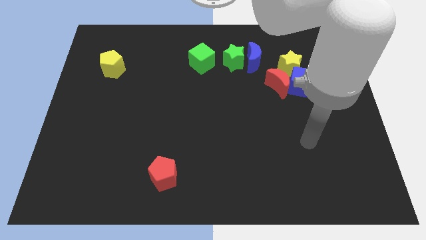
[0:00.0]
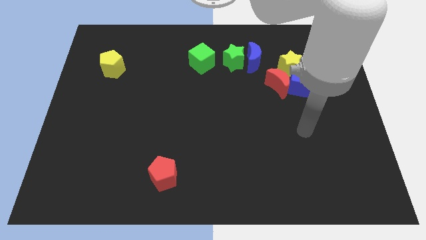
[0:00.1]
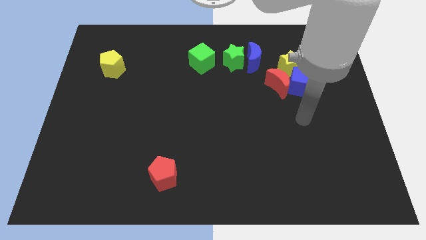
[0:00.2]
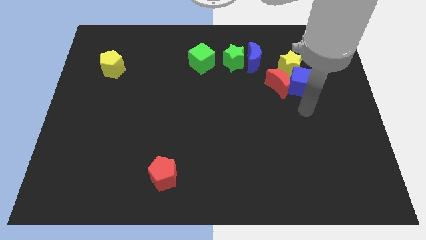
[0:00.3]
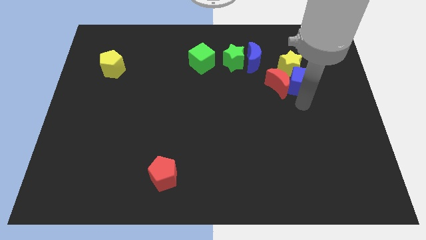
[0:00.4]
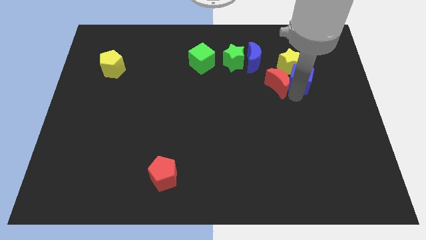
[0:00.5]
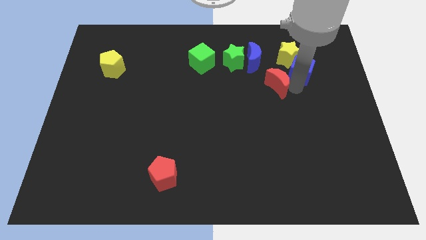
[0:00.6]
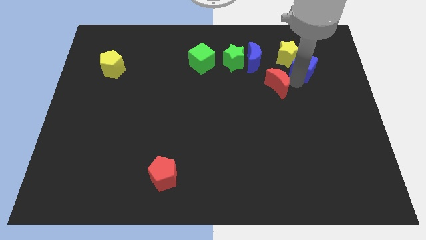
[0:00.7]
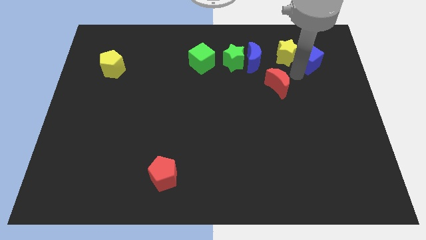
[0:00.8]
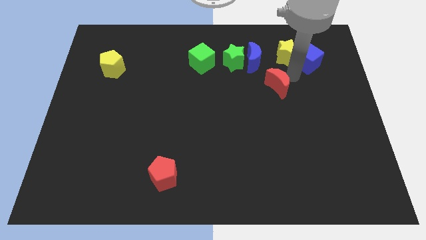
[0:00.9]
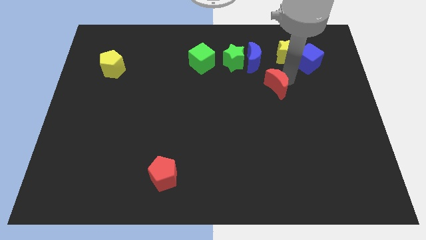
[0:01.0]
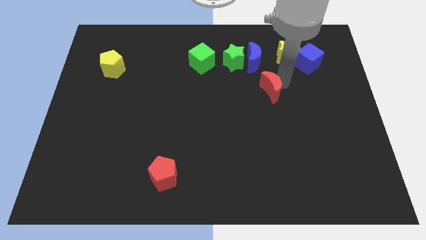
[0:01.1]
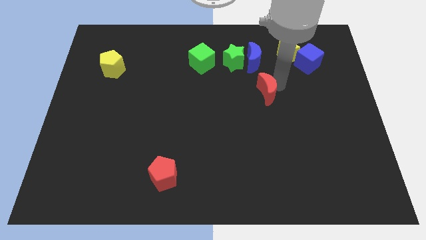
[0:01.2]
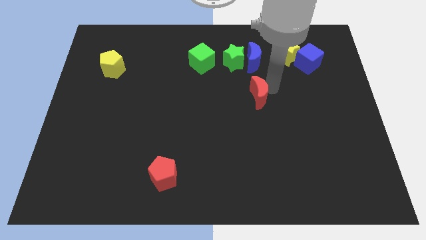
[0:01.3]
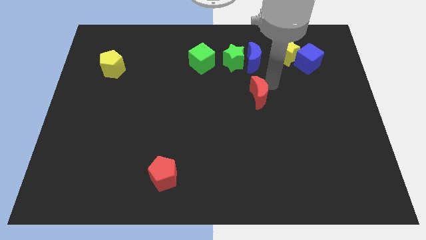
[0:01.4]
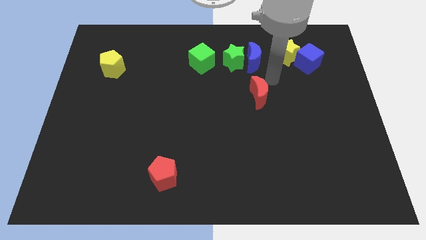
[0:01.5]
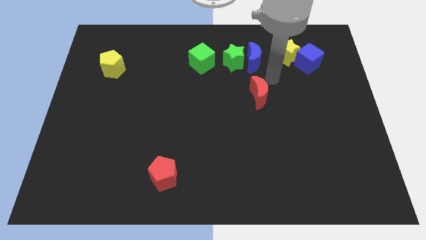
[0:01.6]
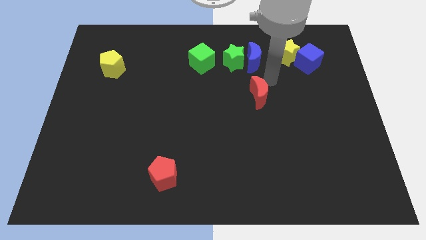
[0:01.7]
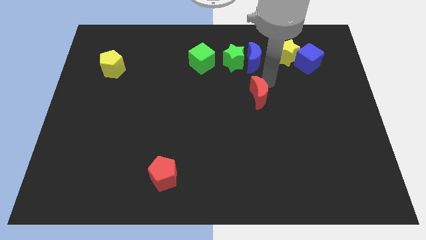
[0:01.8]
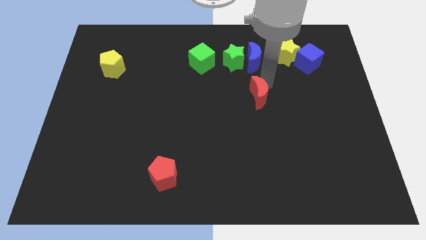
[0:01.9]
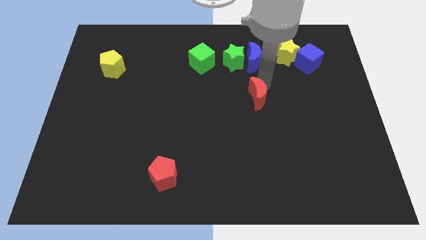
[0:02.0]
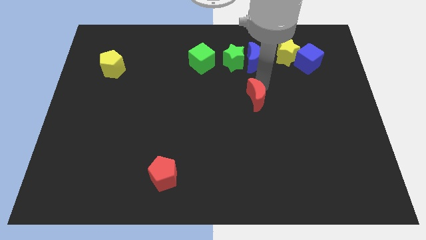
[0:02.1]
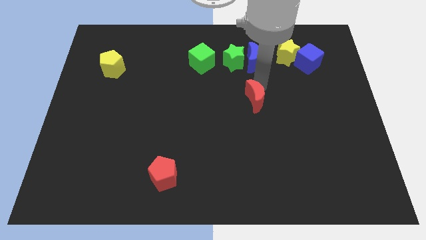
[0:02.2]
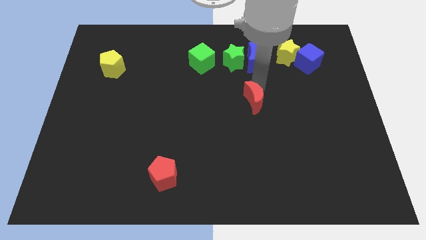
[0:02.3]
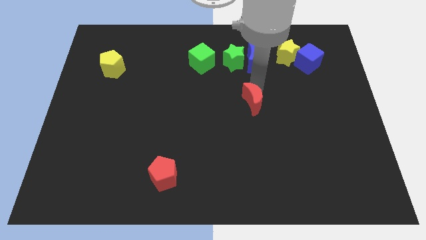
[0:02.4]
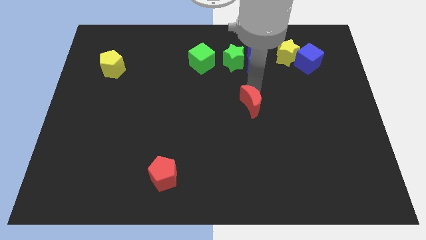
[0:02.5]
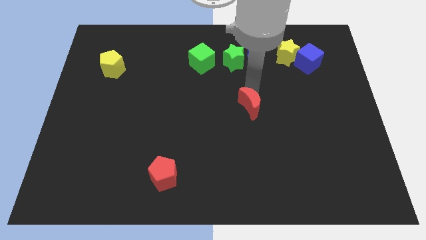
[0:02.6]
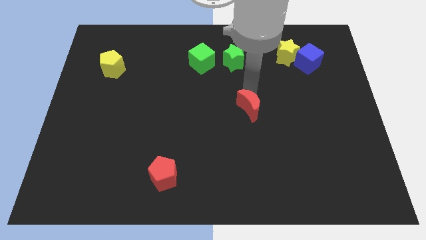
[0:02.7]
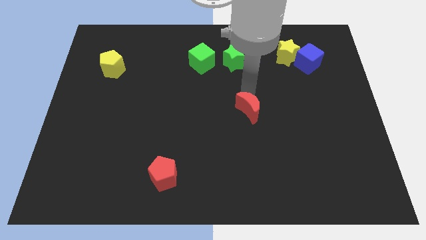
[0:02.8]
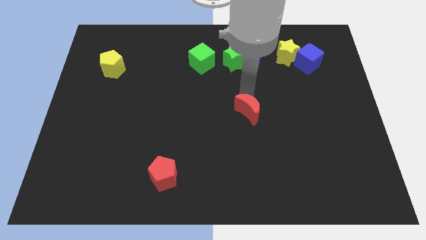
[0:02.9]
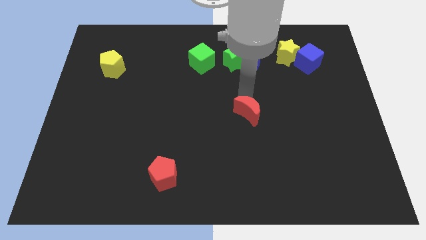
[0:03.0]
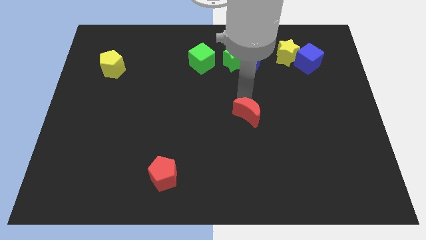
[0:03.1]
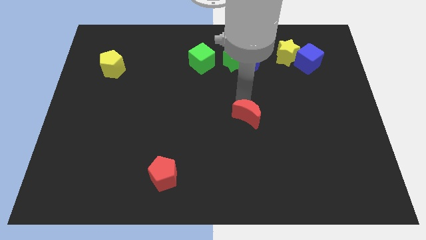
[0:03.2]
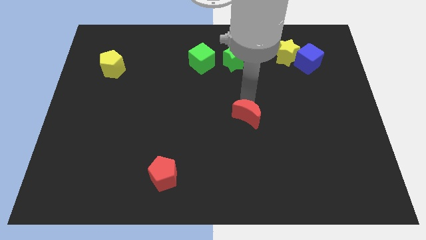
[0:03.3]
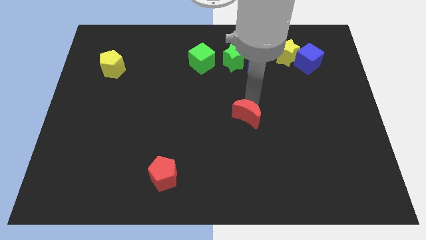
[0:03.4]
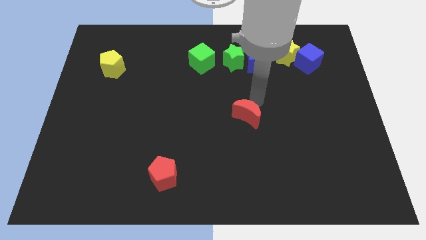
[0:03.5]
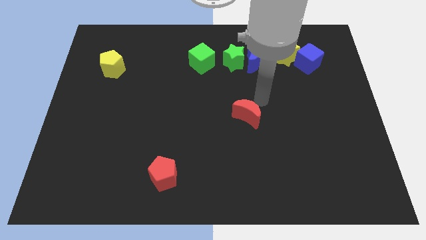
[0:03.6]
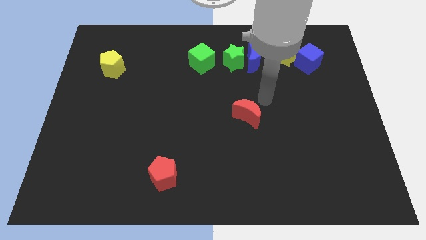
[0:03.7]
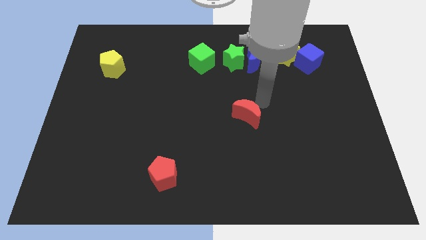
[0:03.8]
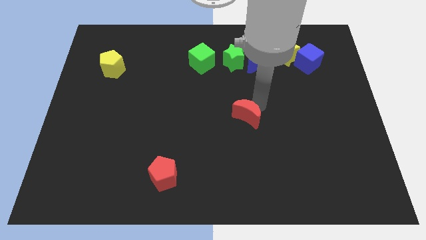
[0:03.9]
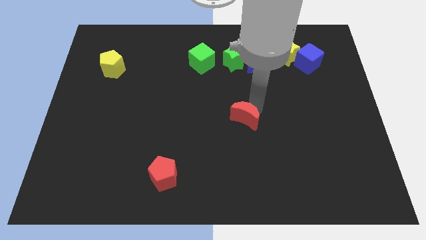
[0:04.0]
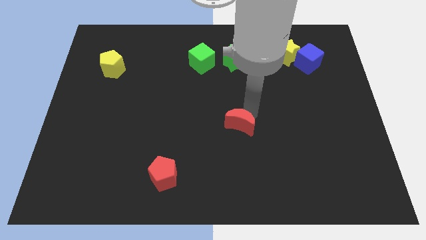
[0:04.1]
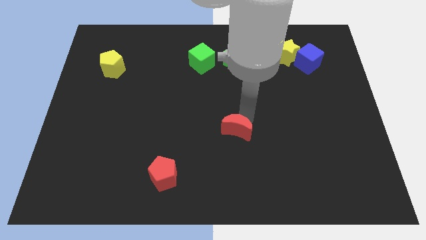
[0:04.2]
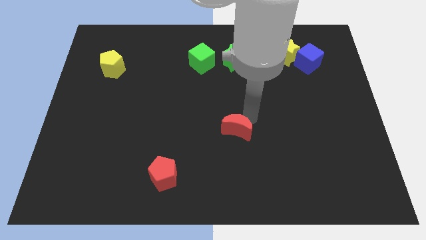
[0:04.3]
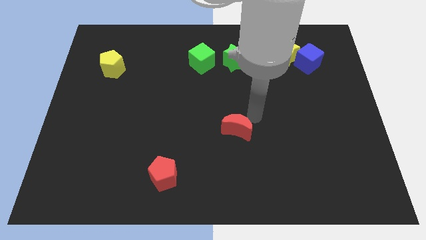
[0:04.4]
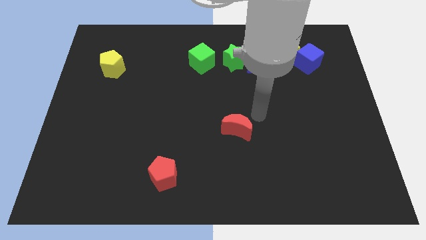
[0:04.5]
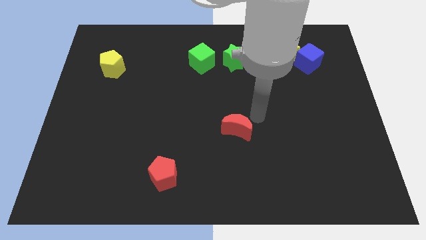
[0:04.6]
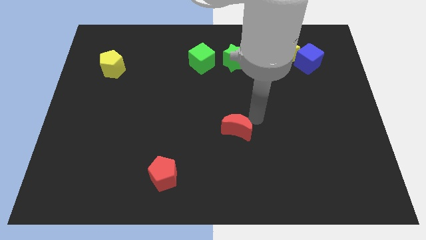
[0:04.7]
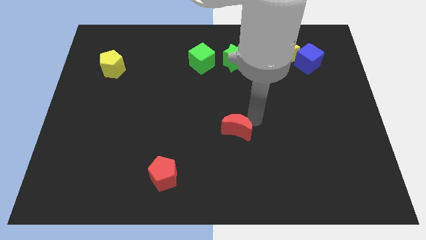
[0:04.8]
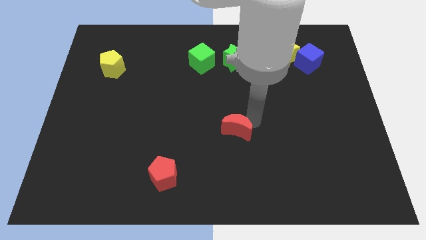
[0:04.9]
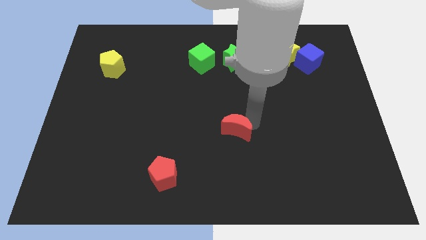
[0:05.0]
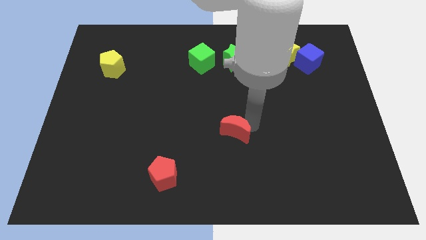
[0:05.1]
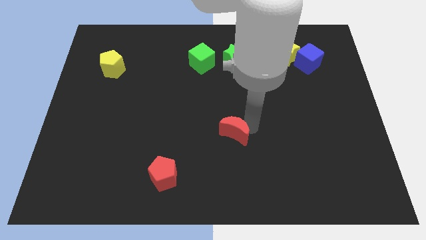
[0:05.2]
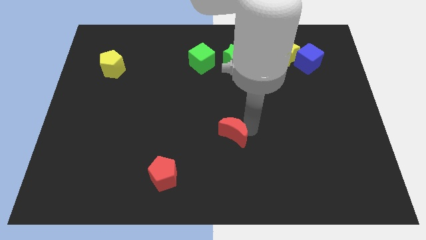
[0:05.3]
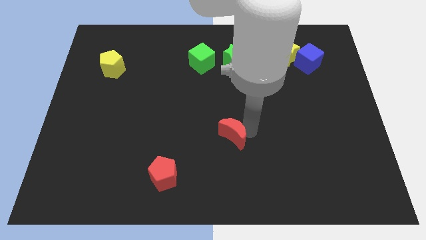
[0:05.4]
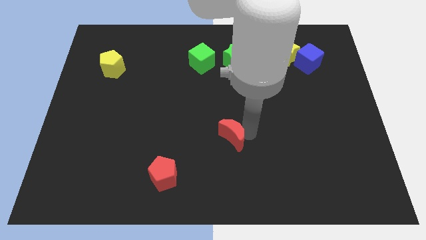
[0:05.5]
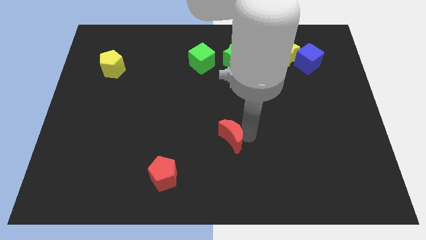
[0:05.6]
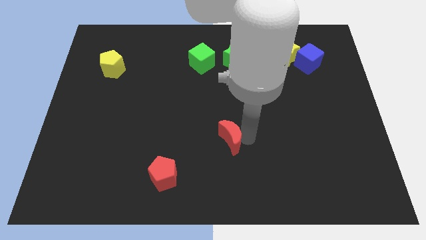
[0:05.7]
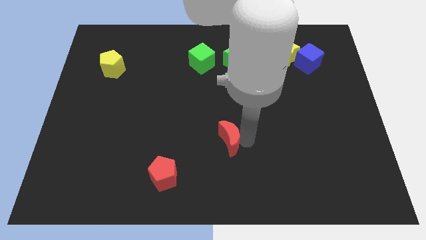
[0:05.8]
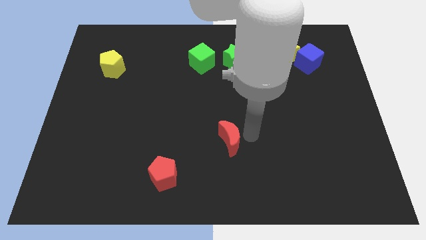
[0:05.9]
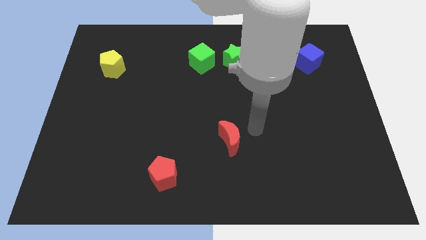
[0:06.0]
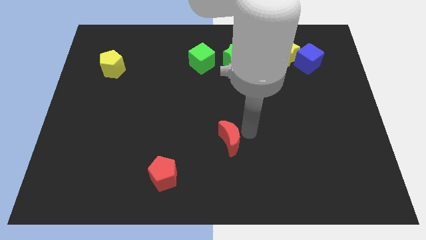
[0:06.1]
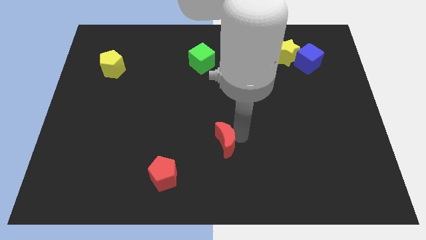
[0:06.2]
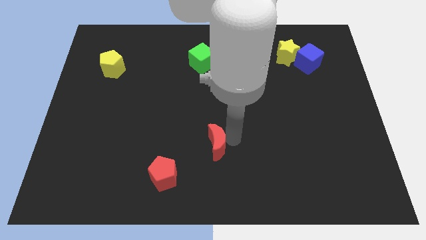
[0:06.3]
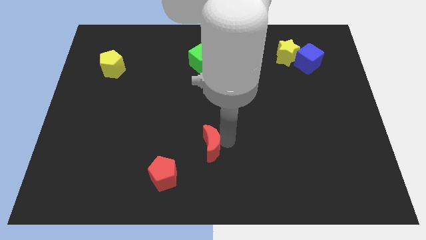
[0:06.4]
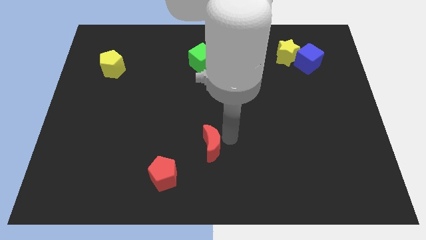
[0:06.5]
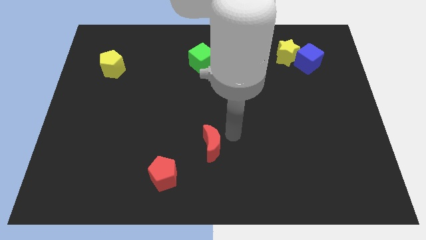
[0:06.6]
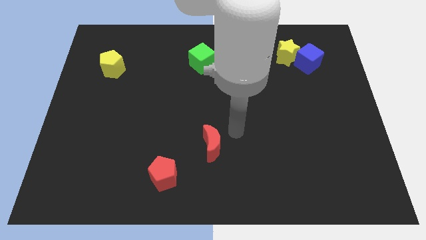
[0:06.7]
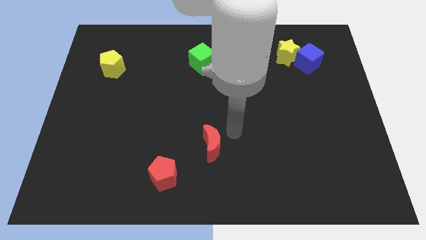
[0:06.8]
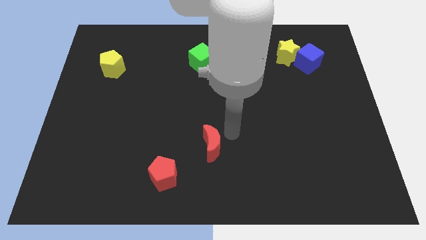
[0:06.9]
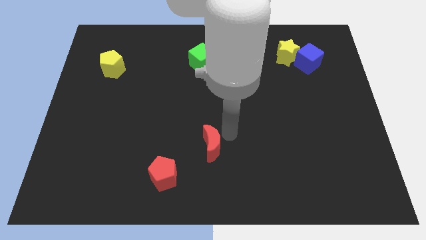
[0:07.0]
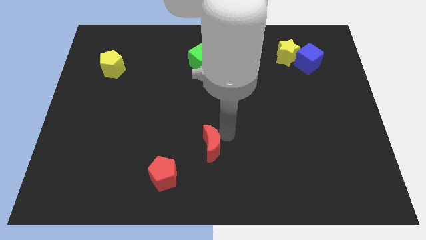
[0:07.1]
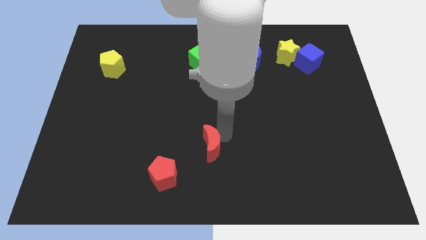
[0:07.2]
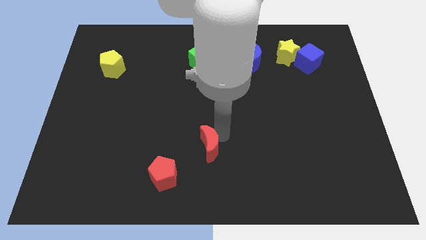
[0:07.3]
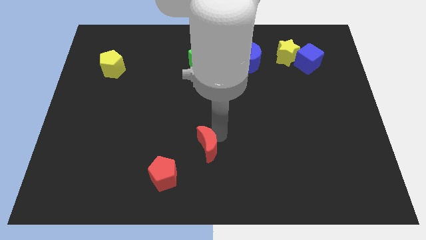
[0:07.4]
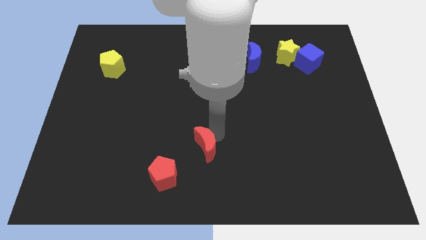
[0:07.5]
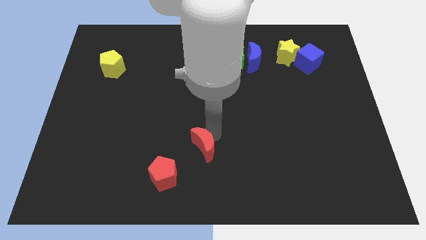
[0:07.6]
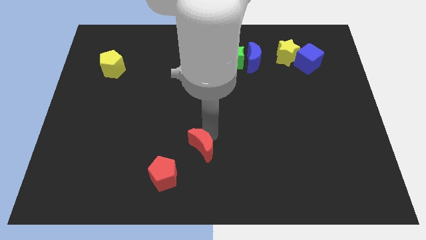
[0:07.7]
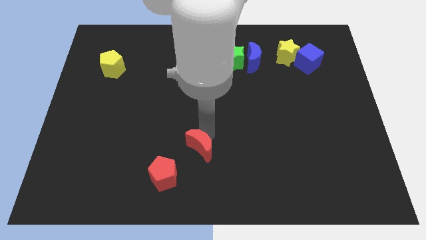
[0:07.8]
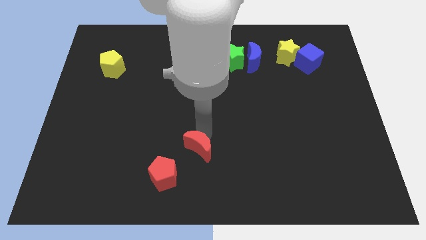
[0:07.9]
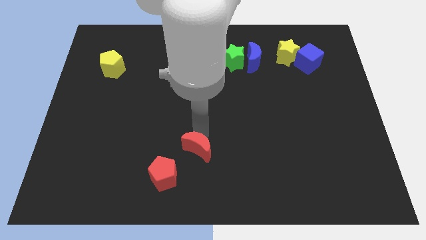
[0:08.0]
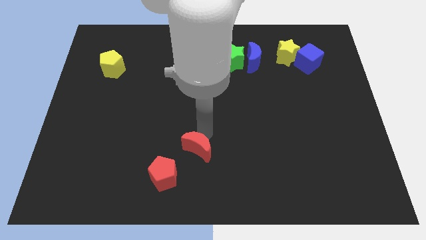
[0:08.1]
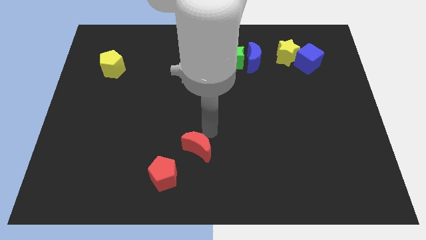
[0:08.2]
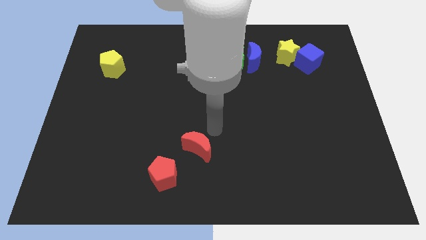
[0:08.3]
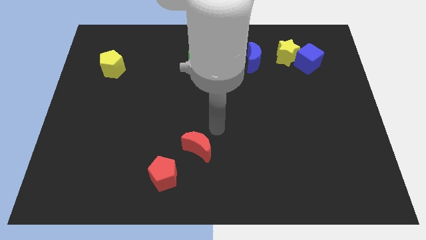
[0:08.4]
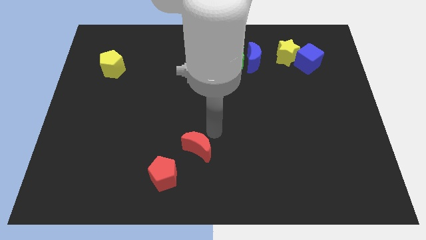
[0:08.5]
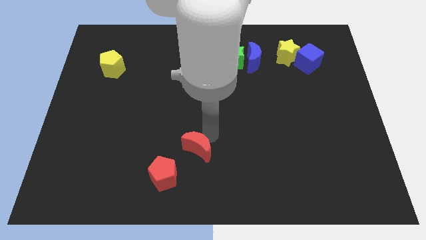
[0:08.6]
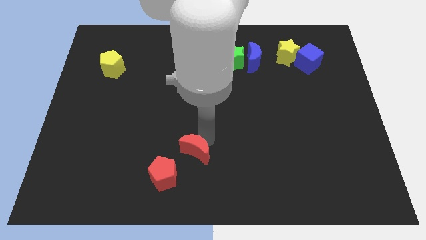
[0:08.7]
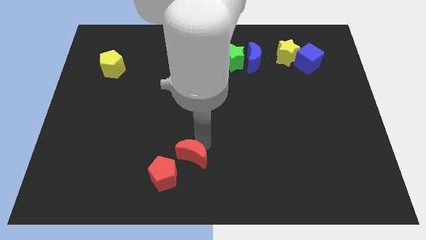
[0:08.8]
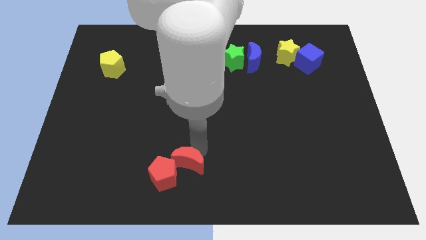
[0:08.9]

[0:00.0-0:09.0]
push the red moon close to the red pentagon
